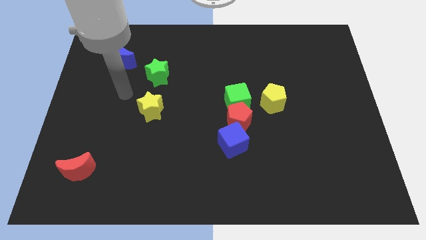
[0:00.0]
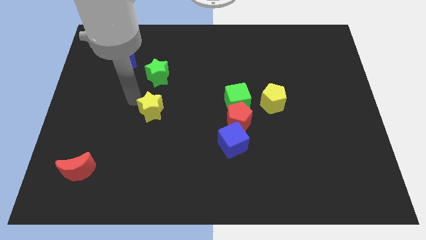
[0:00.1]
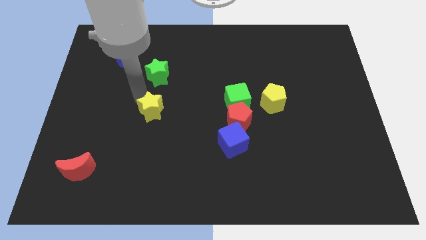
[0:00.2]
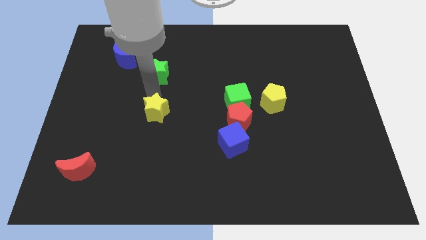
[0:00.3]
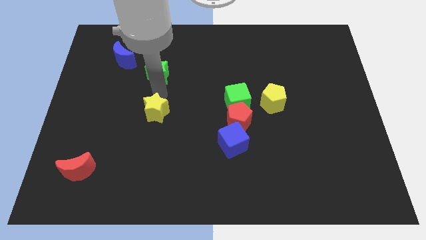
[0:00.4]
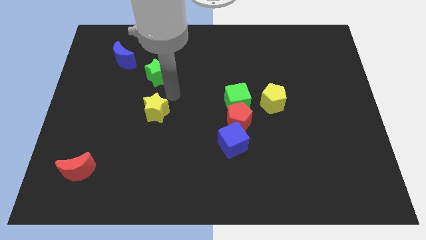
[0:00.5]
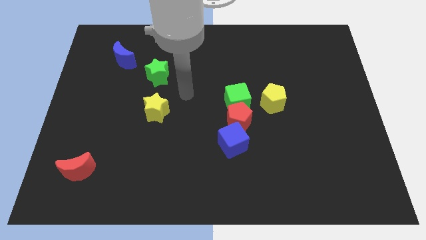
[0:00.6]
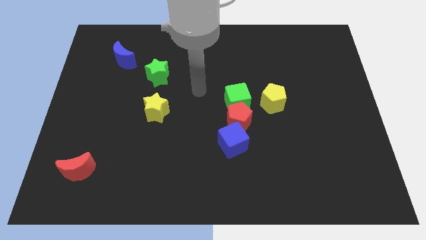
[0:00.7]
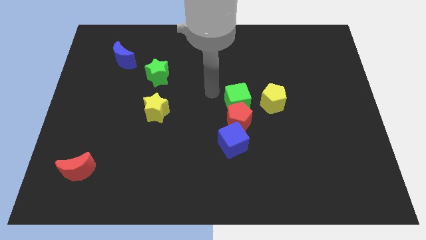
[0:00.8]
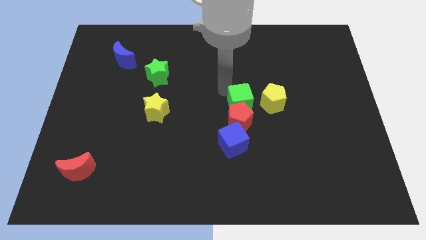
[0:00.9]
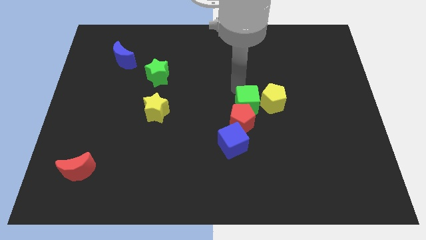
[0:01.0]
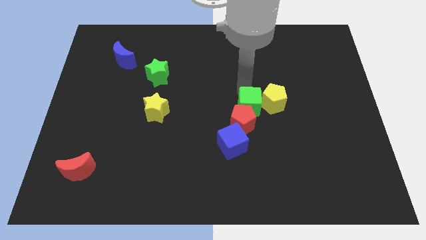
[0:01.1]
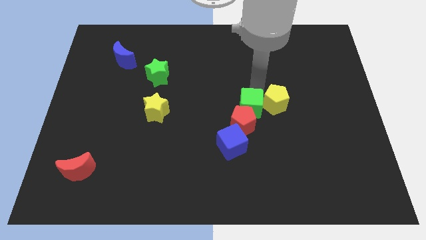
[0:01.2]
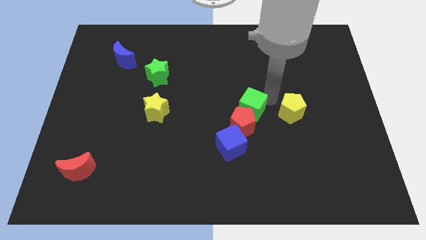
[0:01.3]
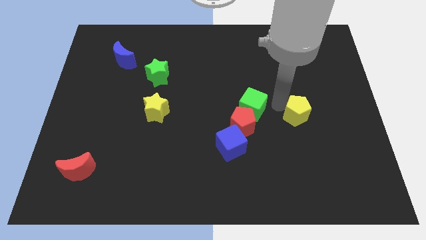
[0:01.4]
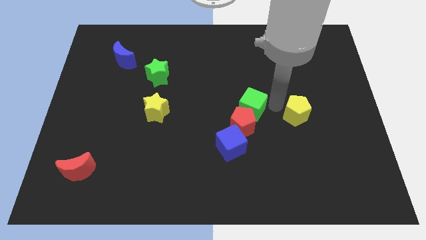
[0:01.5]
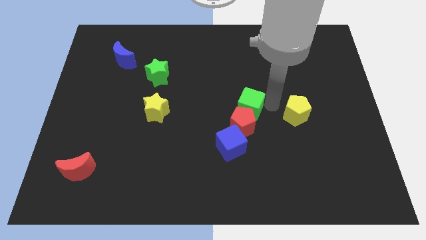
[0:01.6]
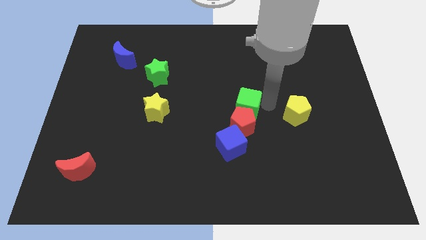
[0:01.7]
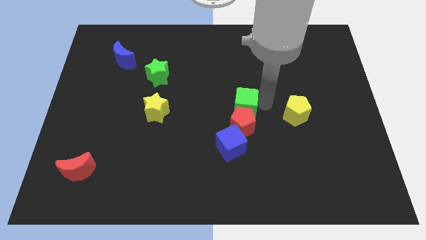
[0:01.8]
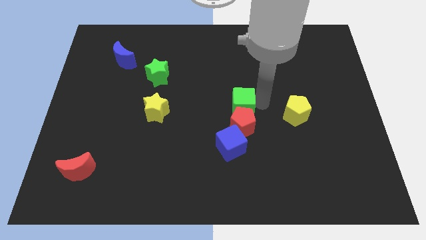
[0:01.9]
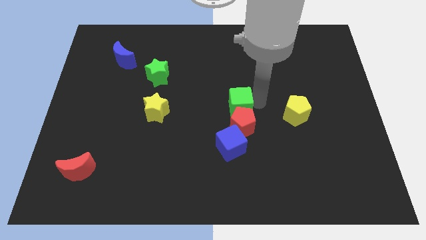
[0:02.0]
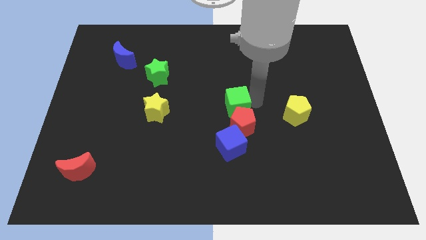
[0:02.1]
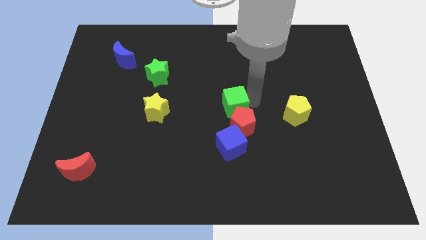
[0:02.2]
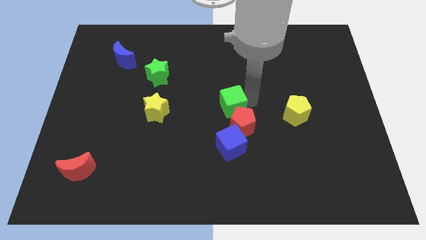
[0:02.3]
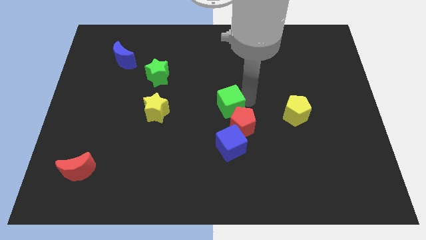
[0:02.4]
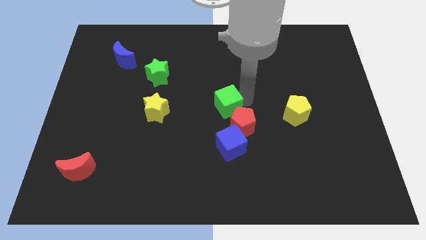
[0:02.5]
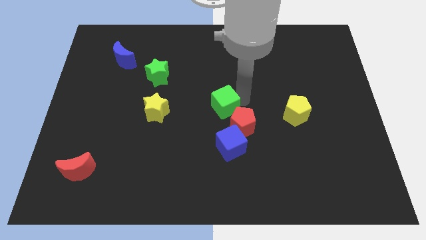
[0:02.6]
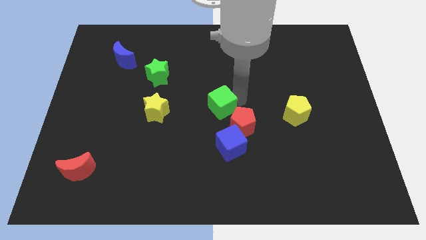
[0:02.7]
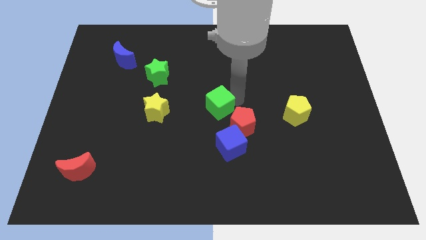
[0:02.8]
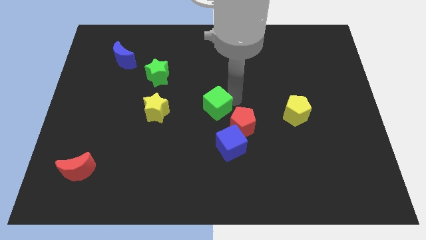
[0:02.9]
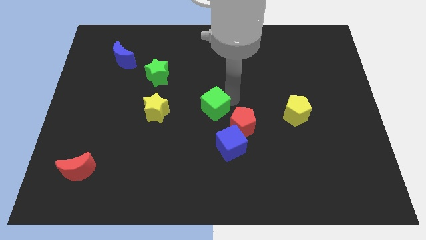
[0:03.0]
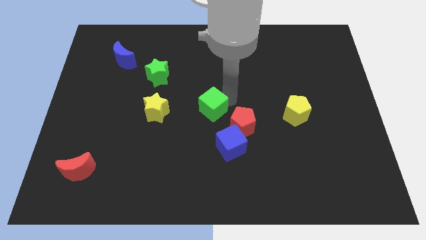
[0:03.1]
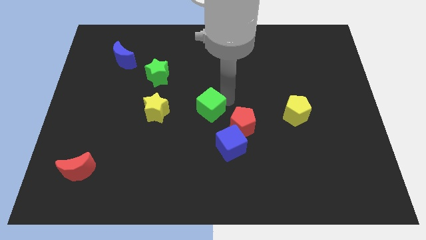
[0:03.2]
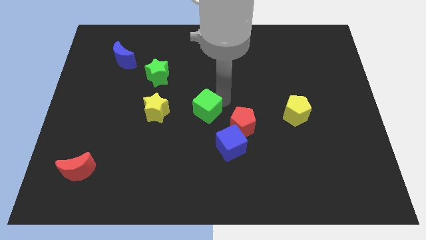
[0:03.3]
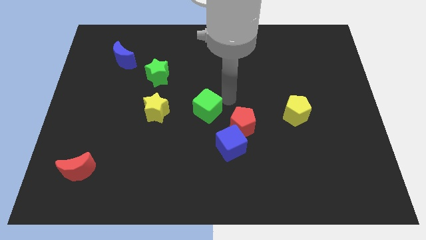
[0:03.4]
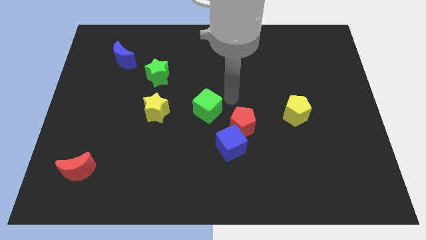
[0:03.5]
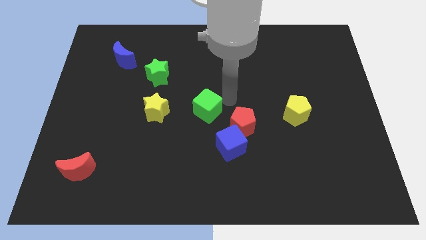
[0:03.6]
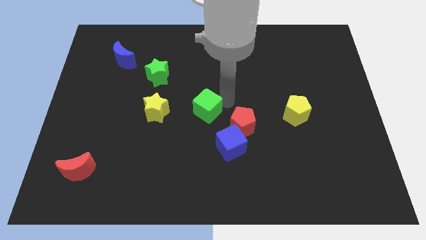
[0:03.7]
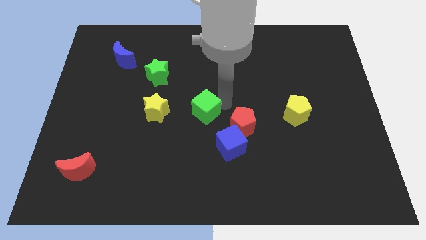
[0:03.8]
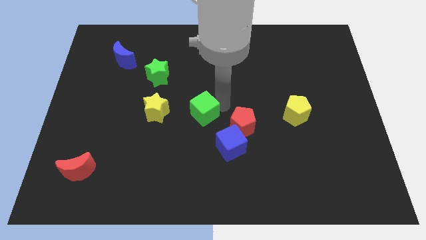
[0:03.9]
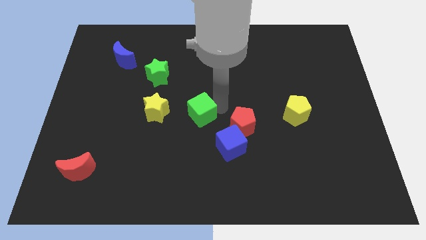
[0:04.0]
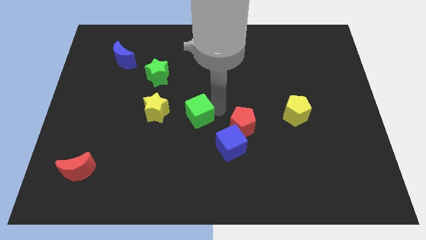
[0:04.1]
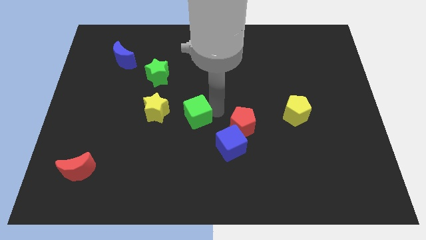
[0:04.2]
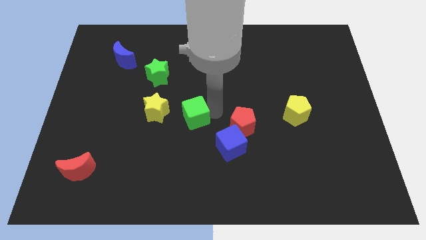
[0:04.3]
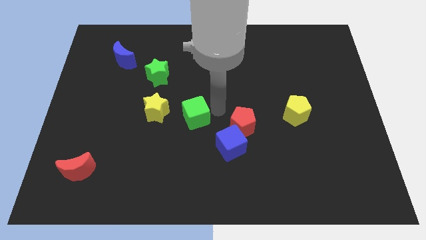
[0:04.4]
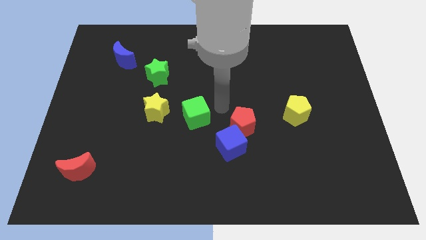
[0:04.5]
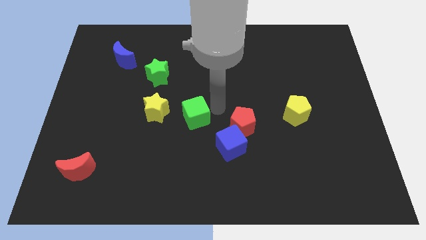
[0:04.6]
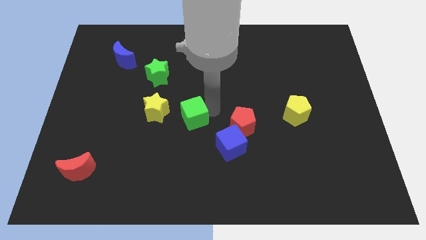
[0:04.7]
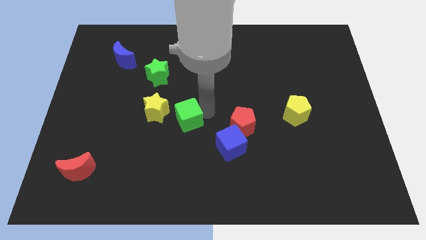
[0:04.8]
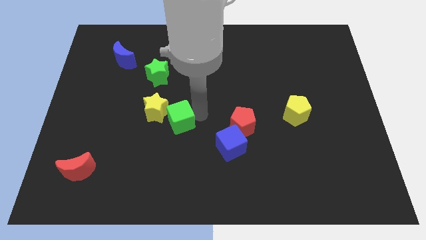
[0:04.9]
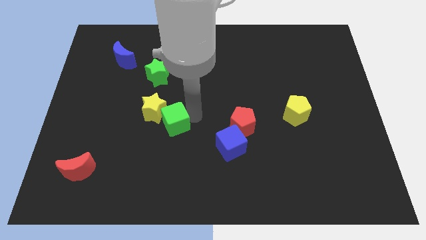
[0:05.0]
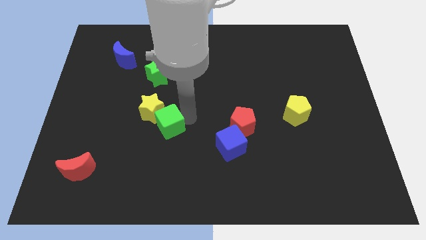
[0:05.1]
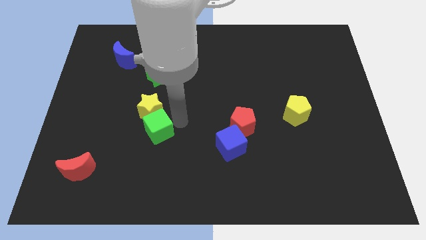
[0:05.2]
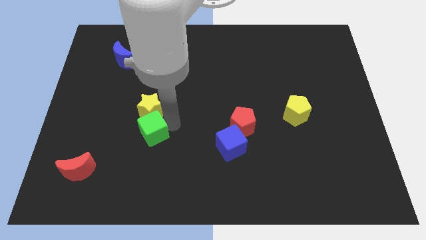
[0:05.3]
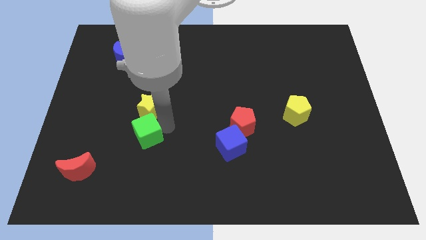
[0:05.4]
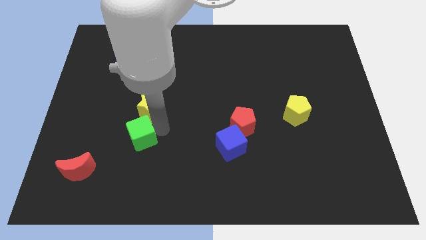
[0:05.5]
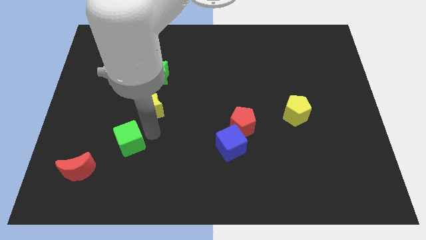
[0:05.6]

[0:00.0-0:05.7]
slide the green cube to the top right of the red moon

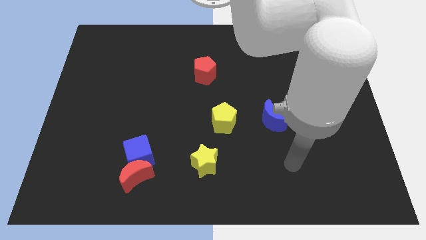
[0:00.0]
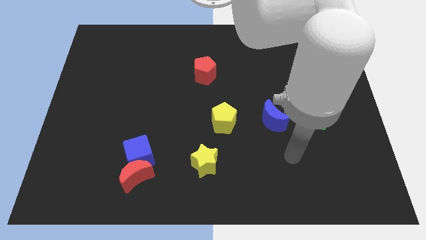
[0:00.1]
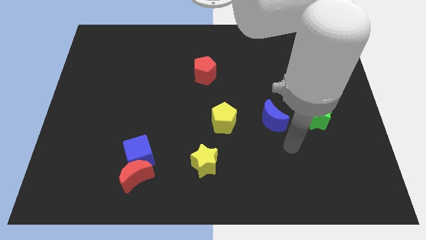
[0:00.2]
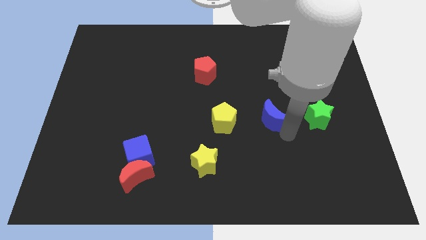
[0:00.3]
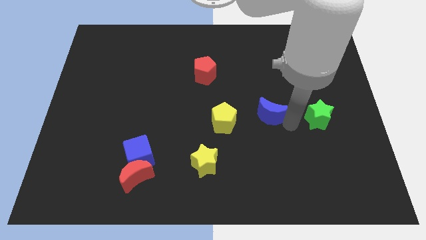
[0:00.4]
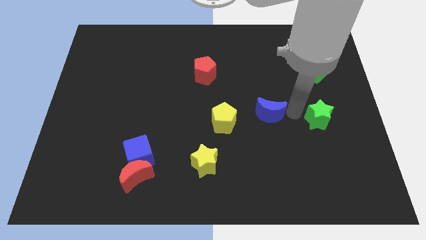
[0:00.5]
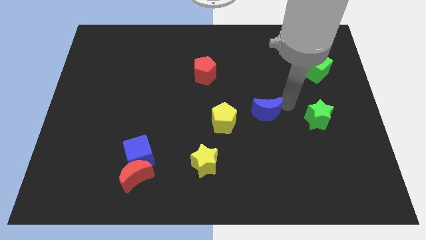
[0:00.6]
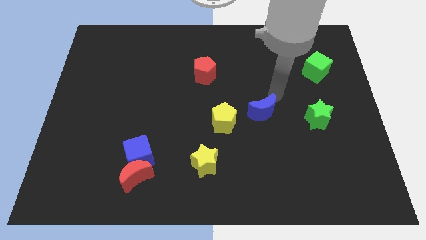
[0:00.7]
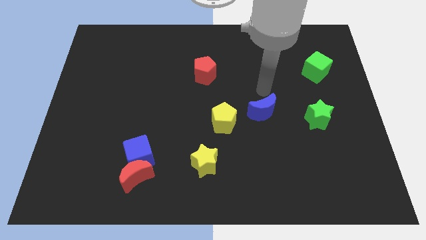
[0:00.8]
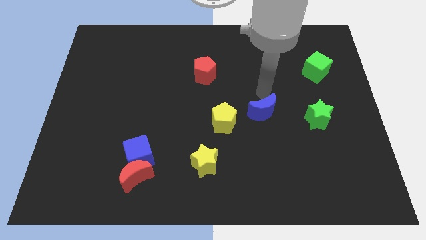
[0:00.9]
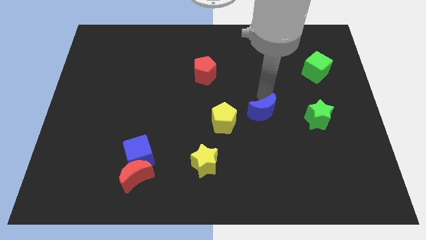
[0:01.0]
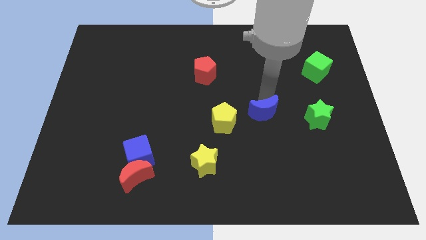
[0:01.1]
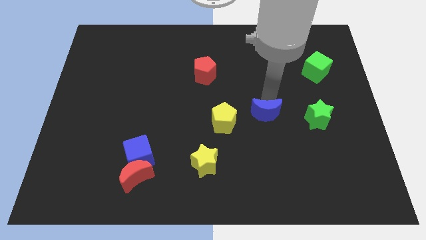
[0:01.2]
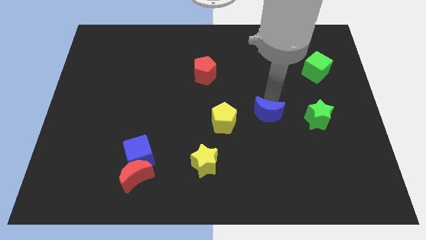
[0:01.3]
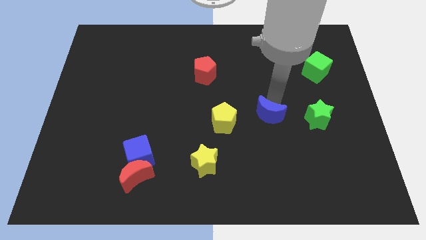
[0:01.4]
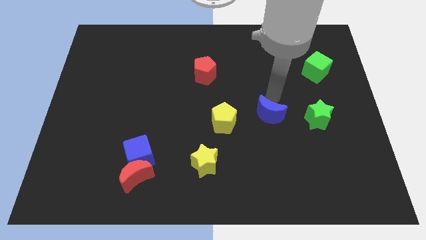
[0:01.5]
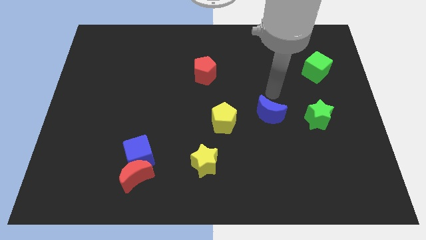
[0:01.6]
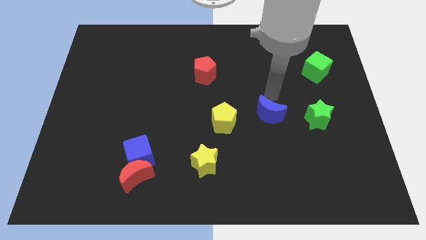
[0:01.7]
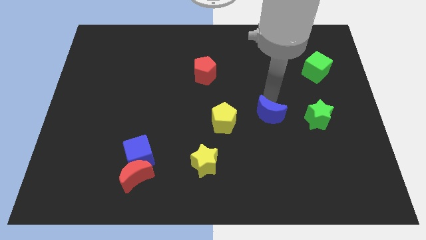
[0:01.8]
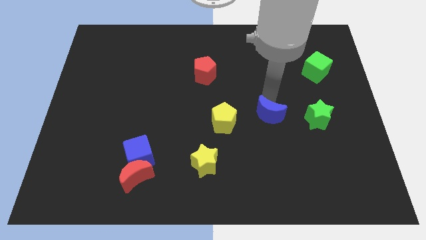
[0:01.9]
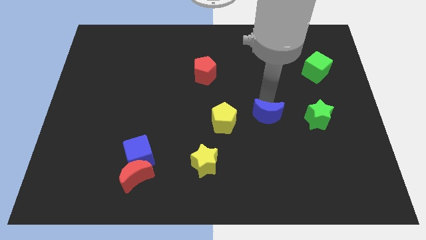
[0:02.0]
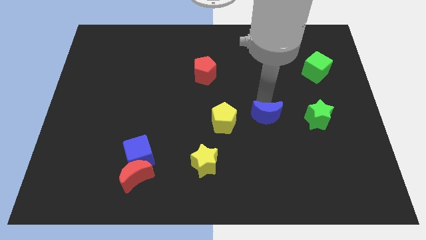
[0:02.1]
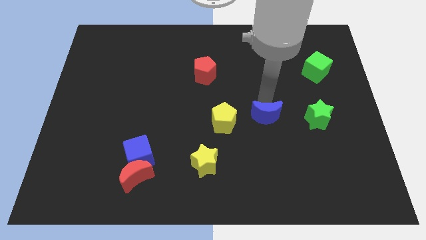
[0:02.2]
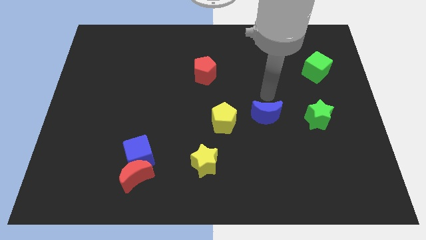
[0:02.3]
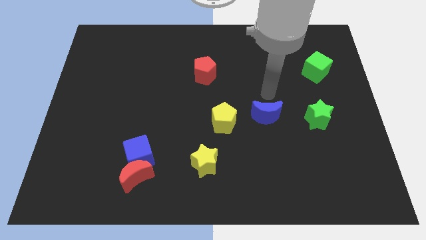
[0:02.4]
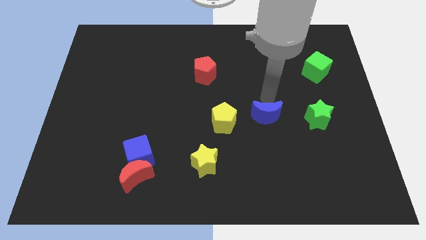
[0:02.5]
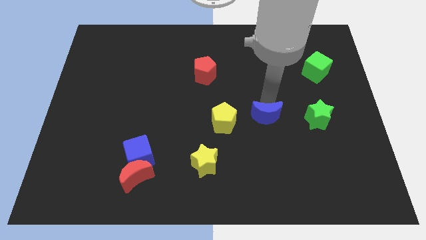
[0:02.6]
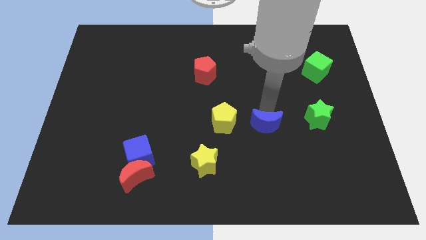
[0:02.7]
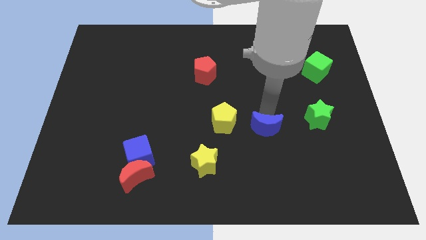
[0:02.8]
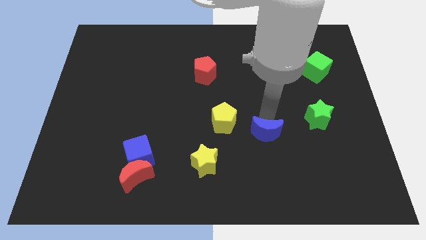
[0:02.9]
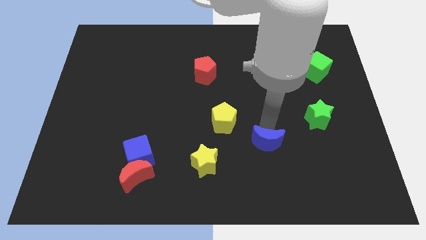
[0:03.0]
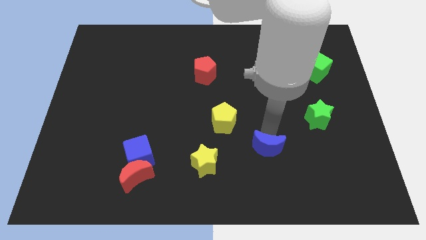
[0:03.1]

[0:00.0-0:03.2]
slide the blue moon right of the yellow star
